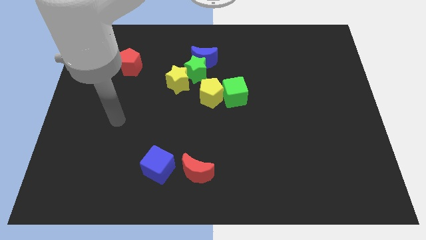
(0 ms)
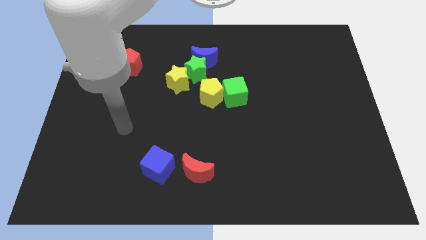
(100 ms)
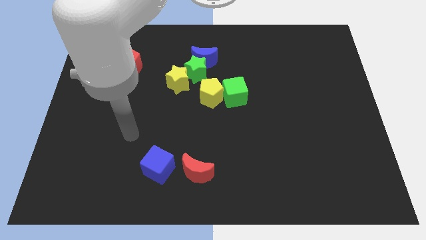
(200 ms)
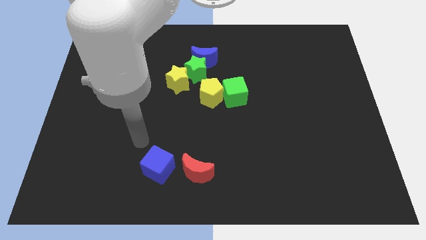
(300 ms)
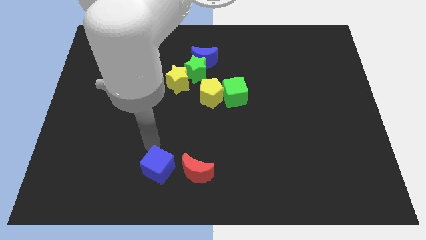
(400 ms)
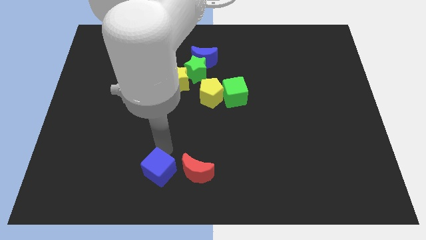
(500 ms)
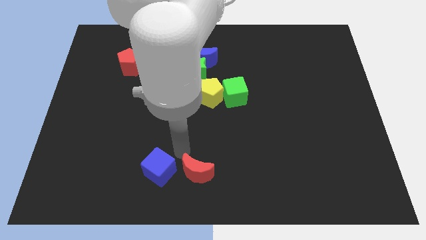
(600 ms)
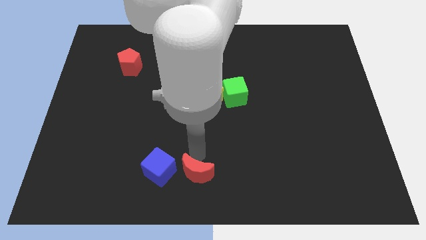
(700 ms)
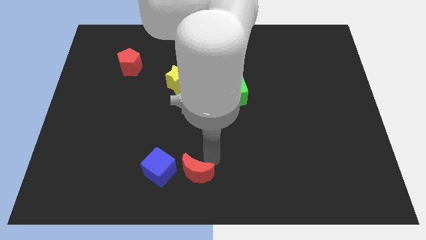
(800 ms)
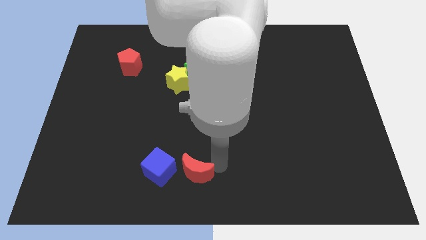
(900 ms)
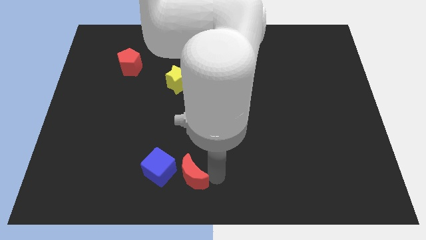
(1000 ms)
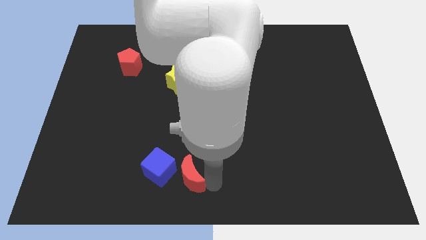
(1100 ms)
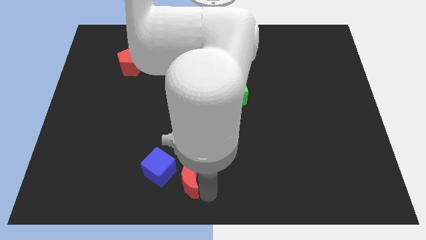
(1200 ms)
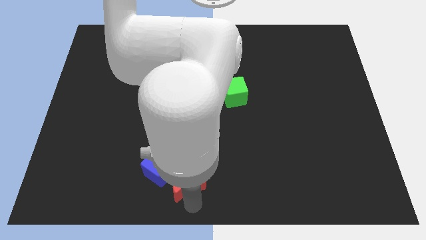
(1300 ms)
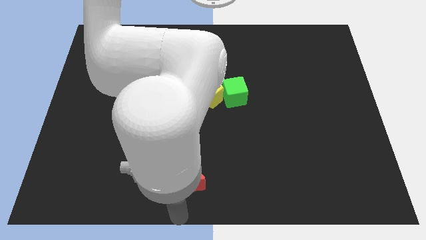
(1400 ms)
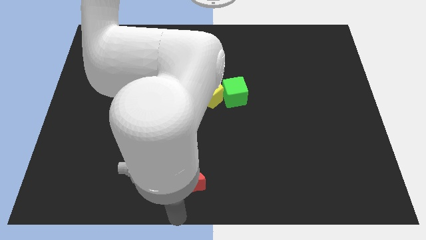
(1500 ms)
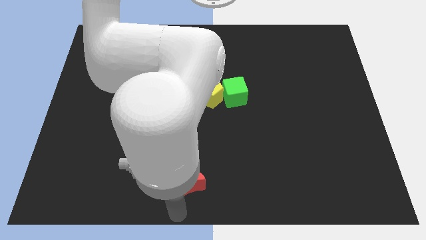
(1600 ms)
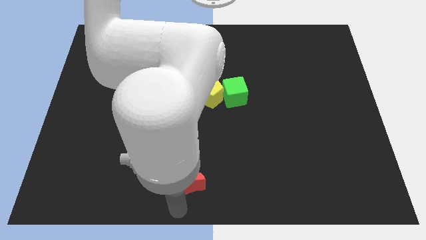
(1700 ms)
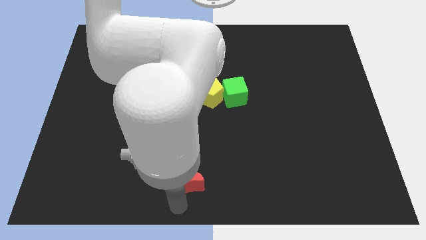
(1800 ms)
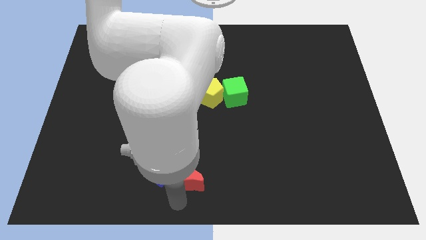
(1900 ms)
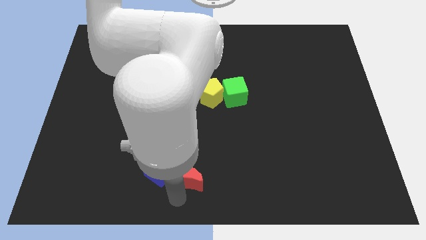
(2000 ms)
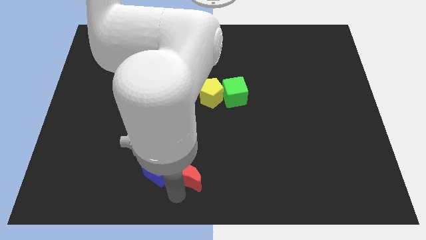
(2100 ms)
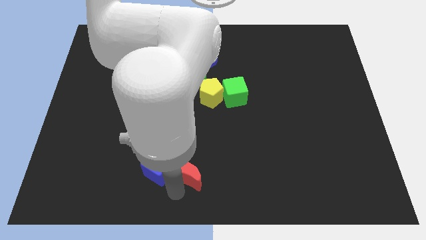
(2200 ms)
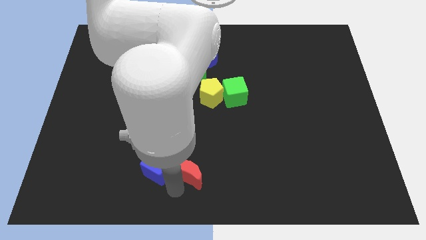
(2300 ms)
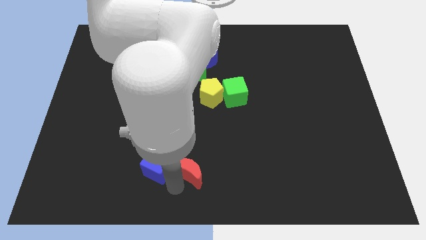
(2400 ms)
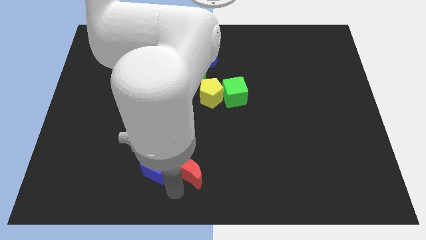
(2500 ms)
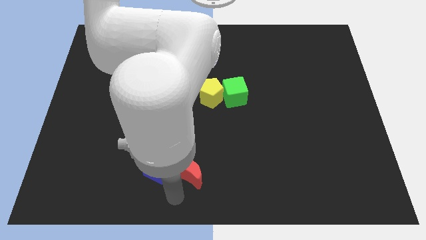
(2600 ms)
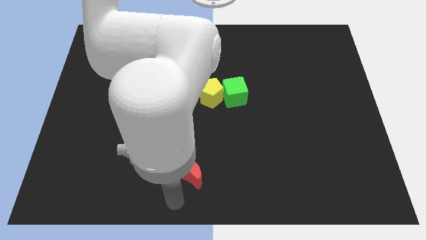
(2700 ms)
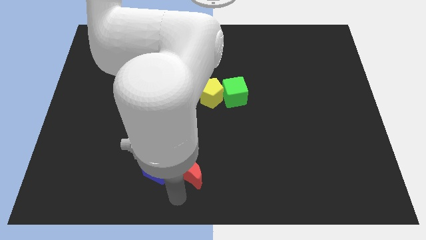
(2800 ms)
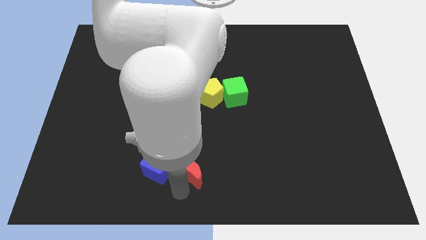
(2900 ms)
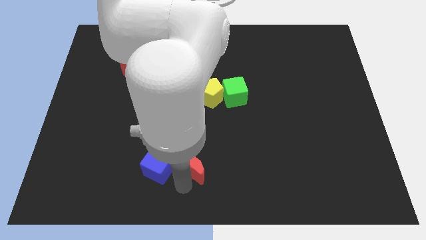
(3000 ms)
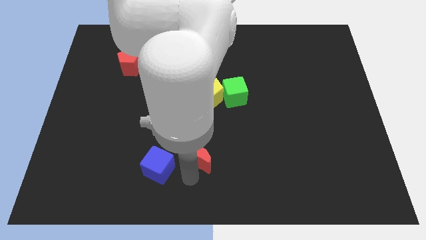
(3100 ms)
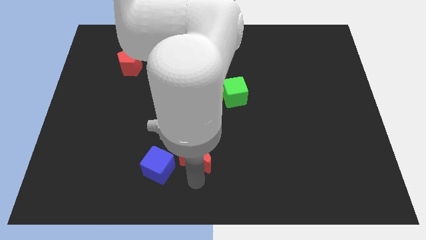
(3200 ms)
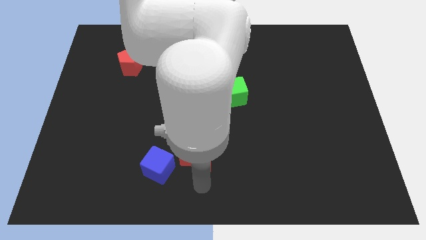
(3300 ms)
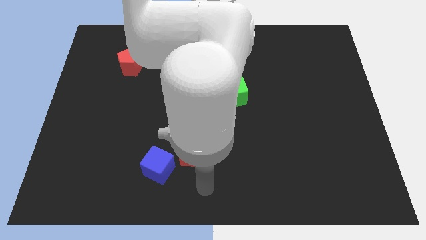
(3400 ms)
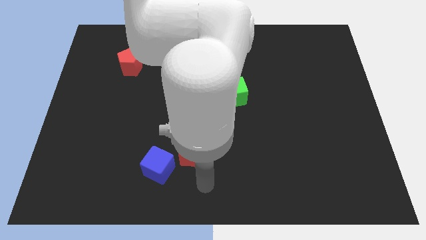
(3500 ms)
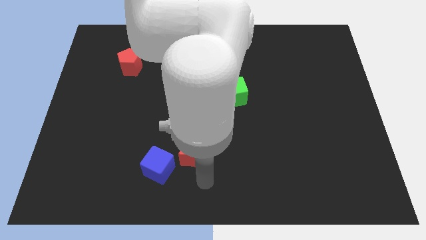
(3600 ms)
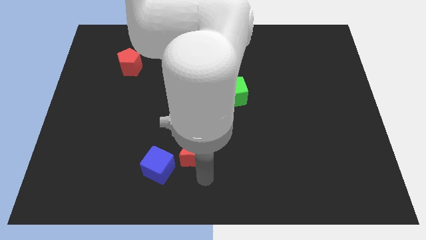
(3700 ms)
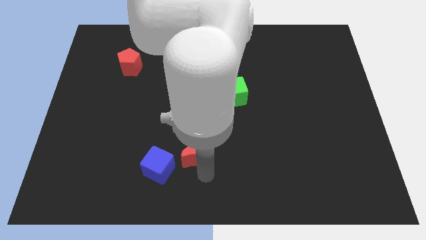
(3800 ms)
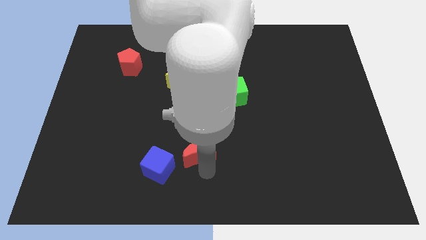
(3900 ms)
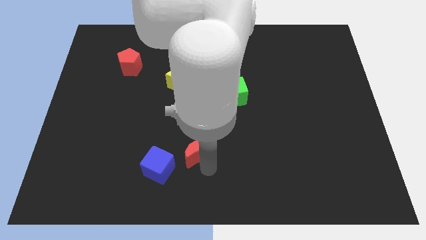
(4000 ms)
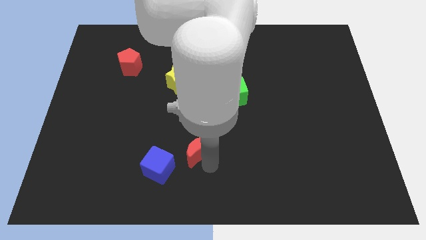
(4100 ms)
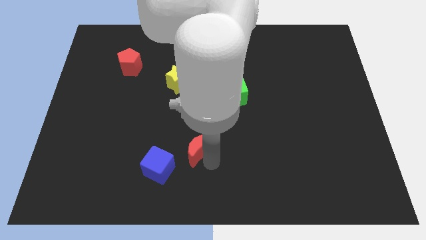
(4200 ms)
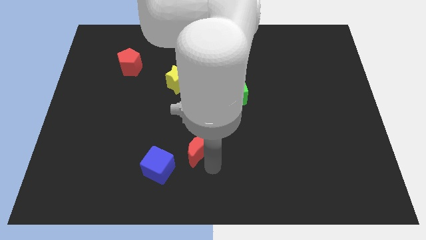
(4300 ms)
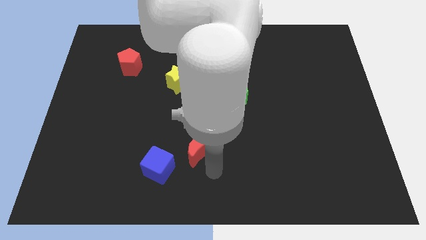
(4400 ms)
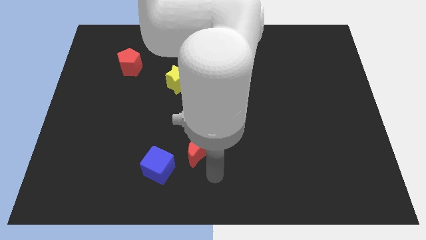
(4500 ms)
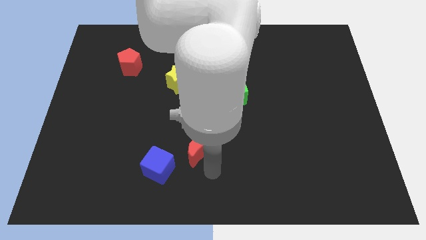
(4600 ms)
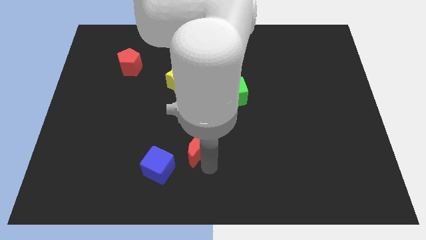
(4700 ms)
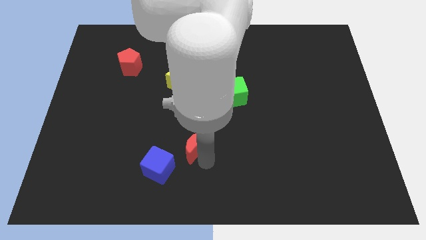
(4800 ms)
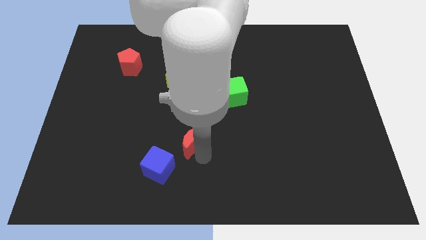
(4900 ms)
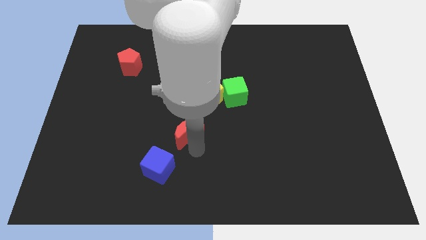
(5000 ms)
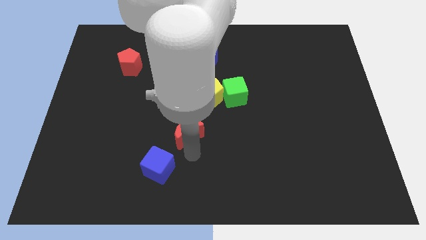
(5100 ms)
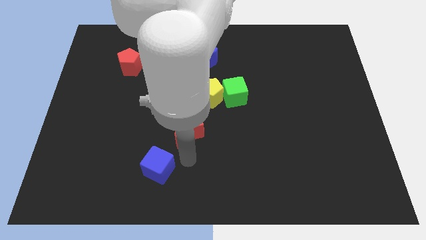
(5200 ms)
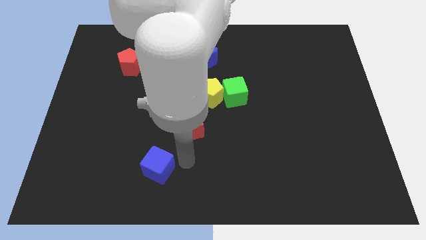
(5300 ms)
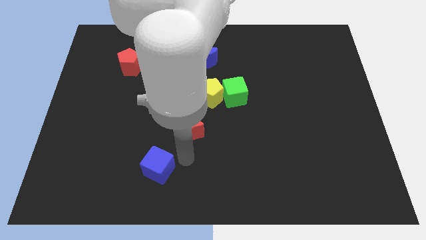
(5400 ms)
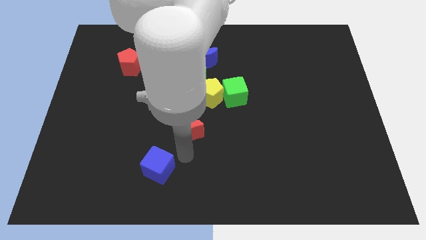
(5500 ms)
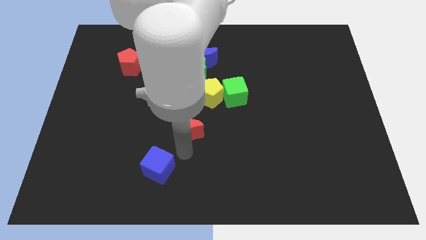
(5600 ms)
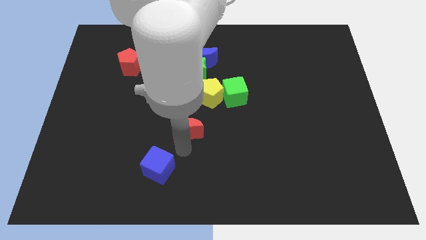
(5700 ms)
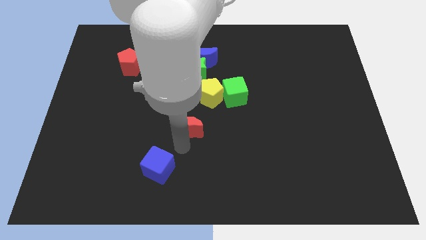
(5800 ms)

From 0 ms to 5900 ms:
slide the red moon to the bottom left side of the yellow pentagon
